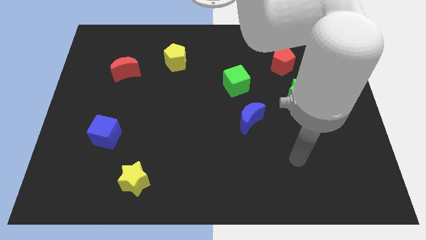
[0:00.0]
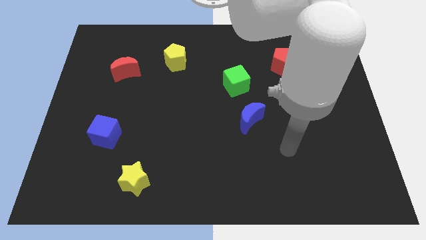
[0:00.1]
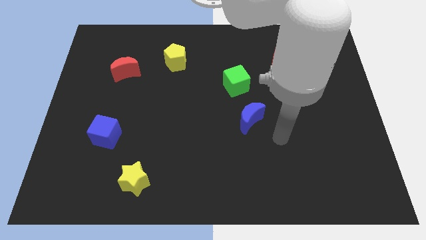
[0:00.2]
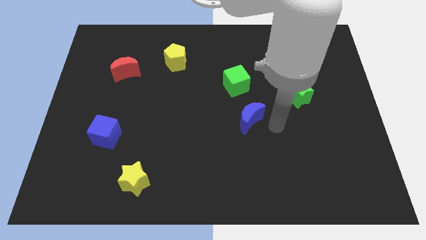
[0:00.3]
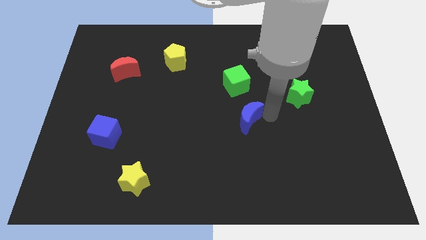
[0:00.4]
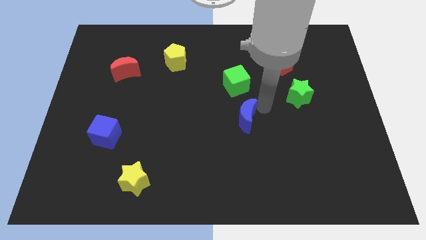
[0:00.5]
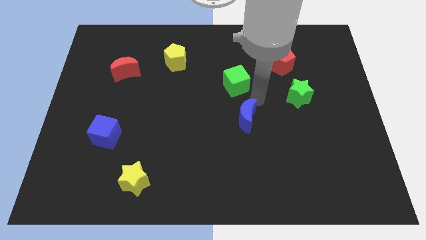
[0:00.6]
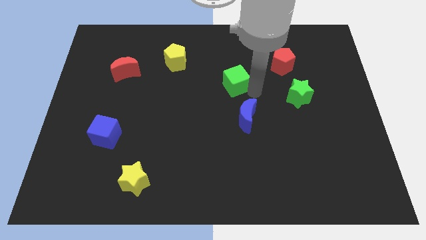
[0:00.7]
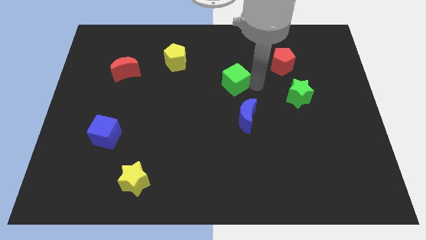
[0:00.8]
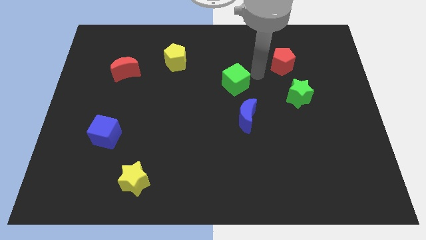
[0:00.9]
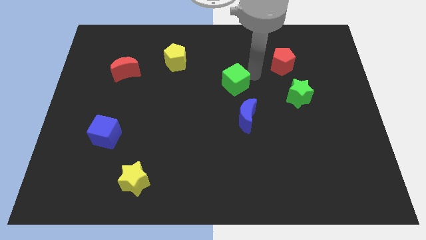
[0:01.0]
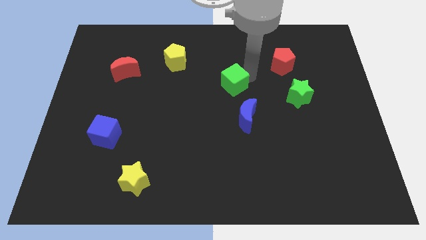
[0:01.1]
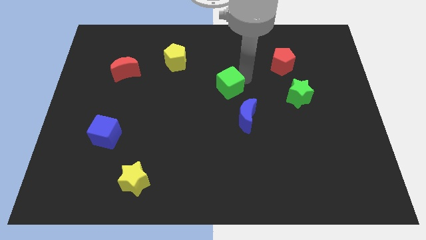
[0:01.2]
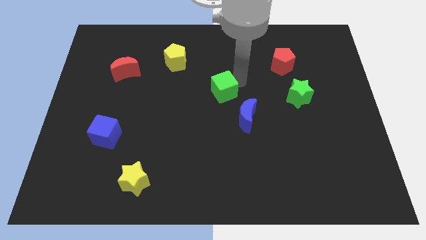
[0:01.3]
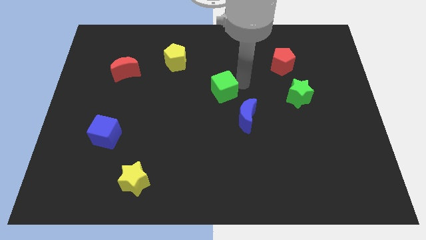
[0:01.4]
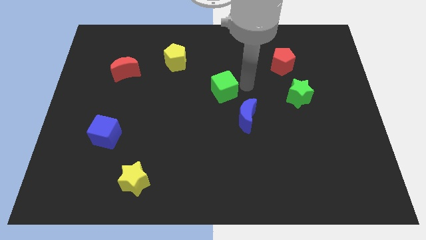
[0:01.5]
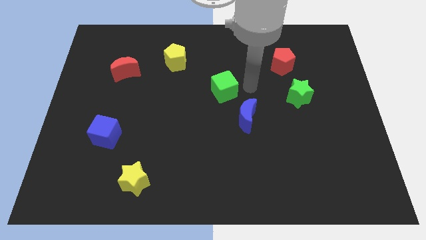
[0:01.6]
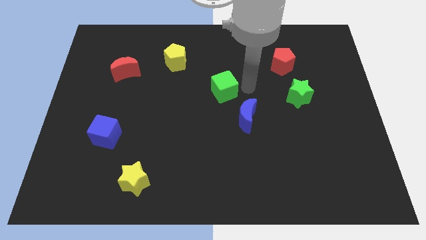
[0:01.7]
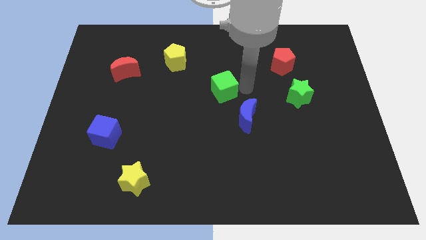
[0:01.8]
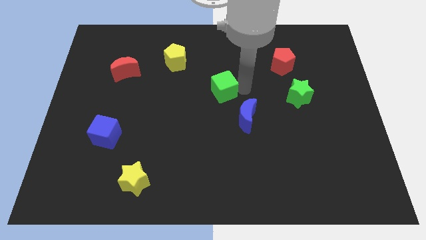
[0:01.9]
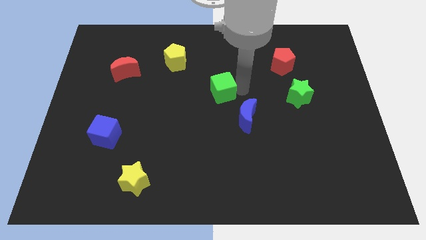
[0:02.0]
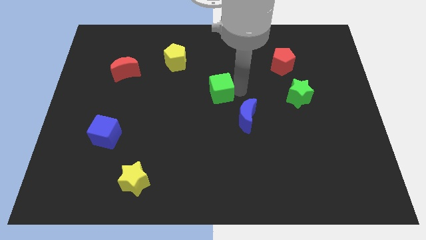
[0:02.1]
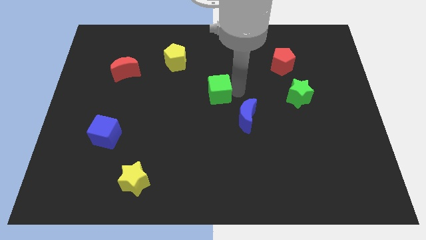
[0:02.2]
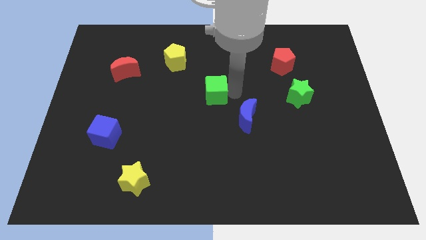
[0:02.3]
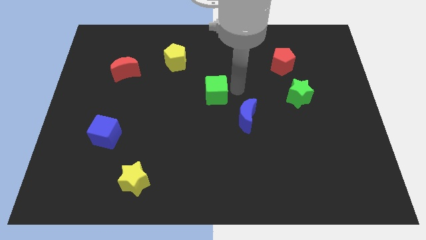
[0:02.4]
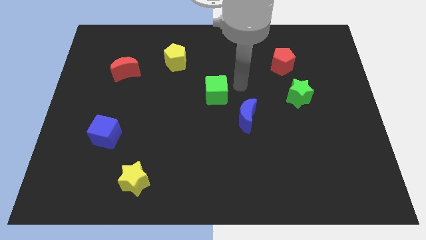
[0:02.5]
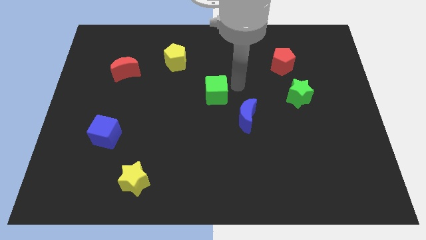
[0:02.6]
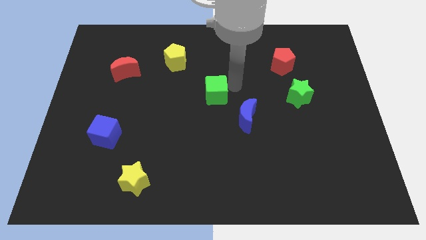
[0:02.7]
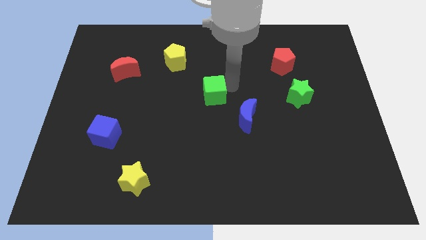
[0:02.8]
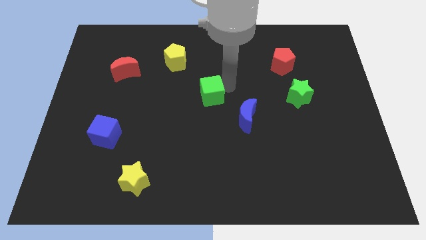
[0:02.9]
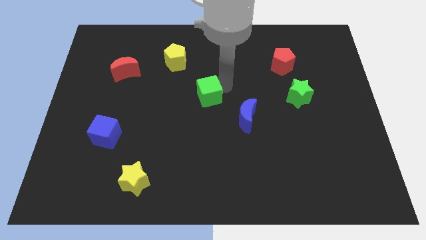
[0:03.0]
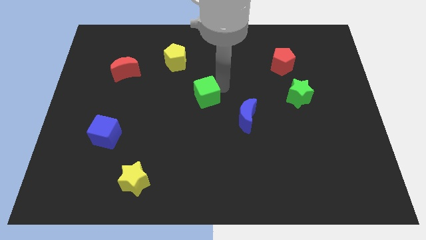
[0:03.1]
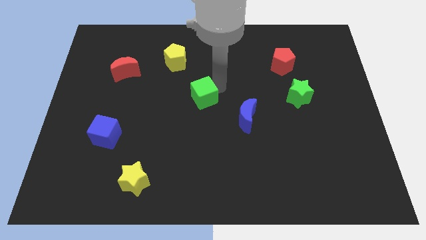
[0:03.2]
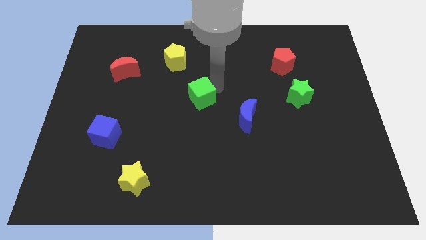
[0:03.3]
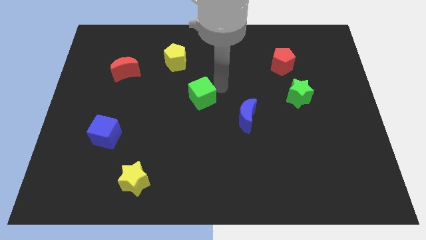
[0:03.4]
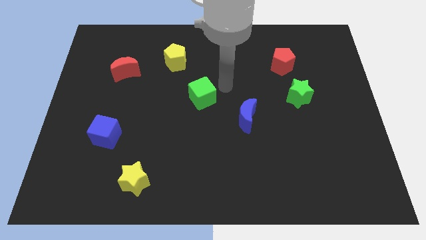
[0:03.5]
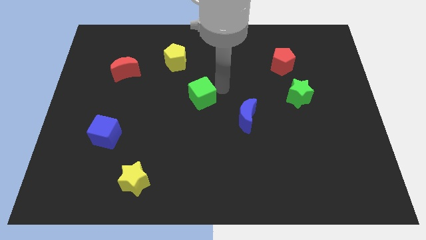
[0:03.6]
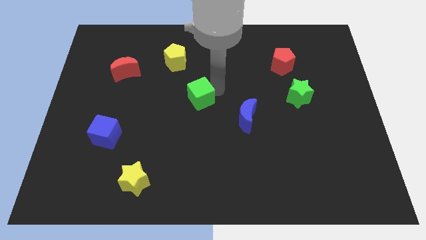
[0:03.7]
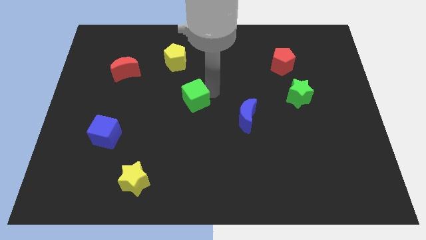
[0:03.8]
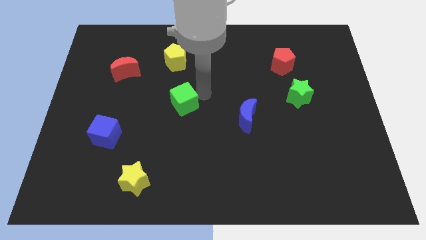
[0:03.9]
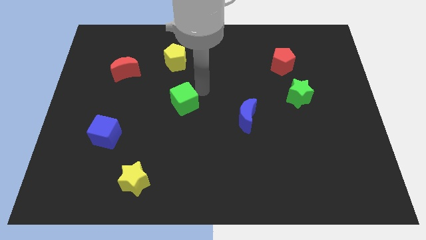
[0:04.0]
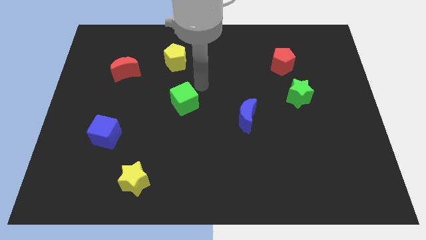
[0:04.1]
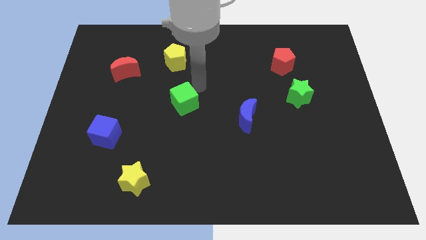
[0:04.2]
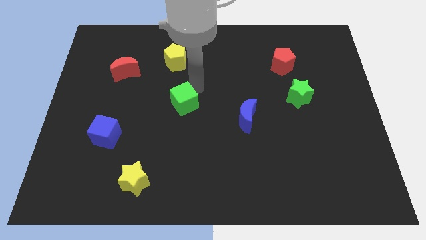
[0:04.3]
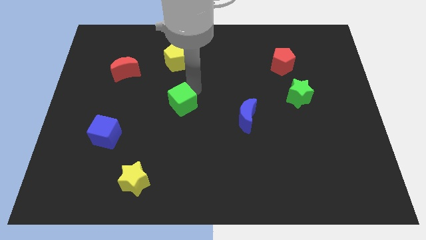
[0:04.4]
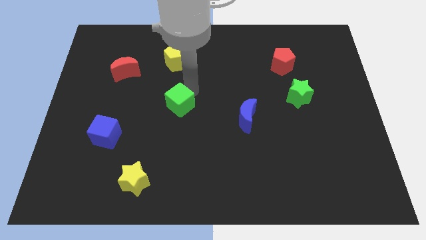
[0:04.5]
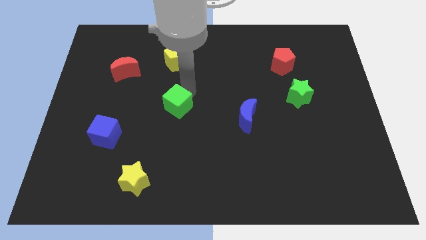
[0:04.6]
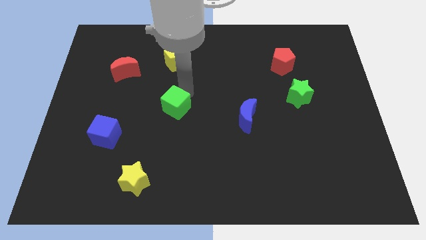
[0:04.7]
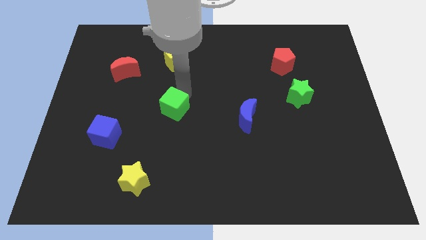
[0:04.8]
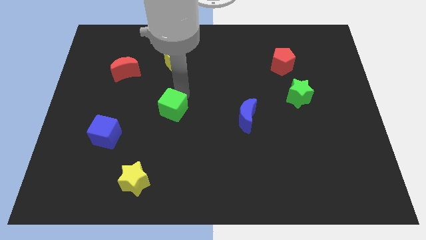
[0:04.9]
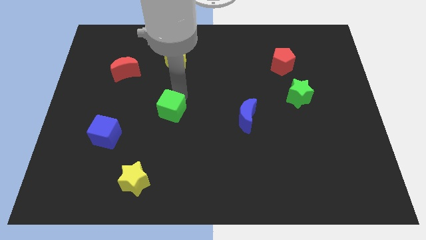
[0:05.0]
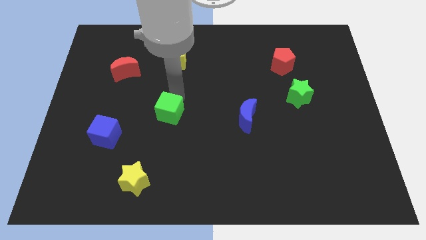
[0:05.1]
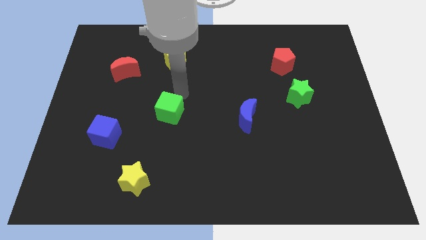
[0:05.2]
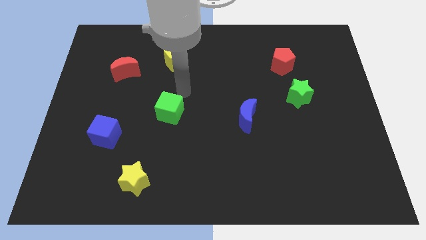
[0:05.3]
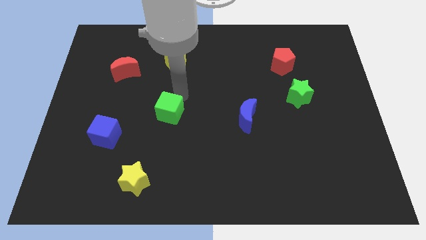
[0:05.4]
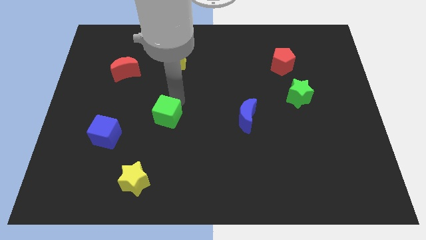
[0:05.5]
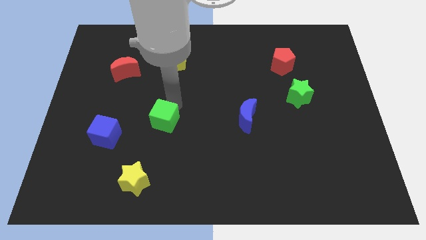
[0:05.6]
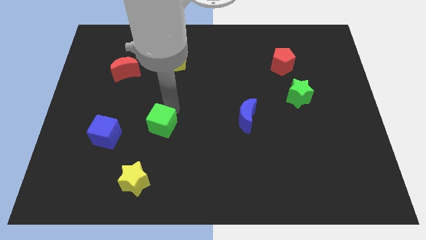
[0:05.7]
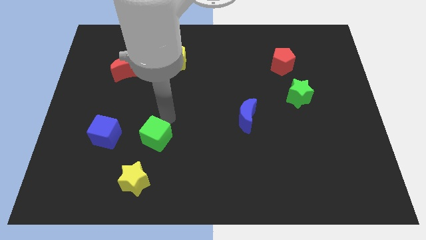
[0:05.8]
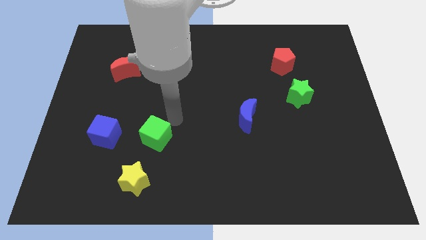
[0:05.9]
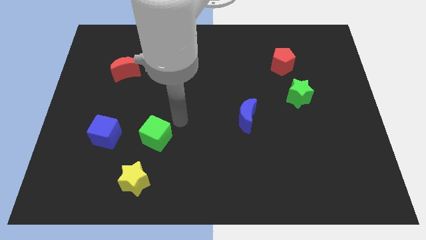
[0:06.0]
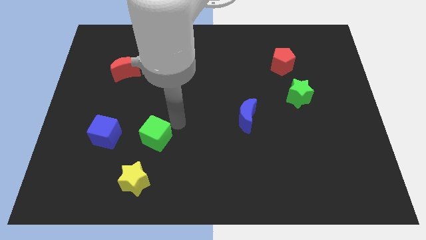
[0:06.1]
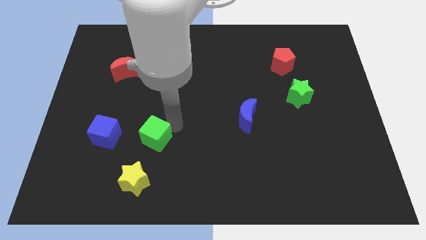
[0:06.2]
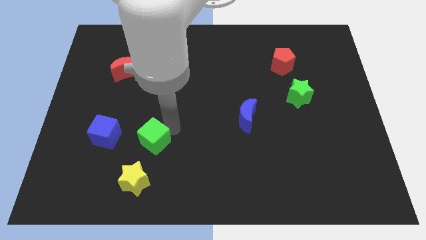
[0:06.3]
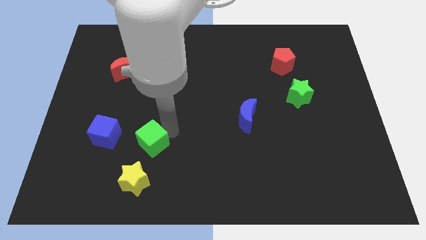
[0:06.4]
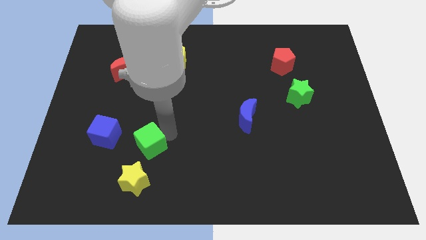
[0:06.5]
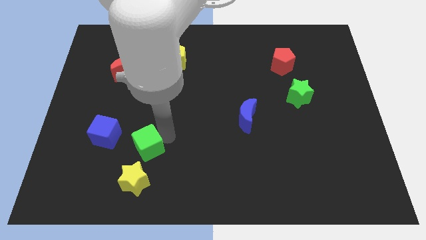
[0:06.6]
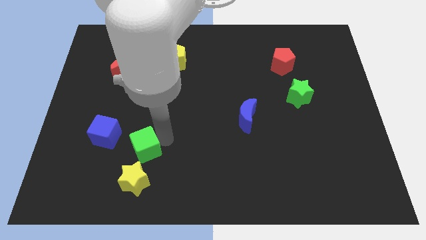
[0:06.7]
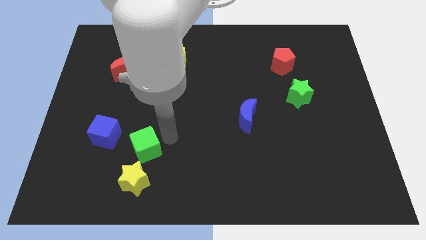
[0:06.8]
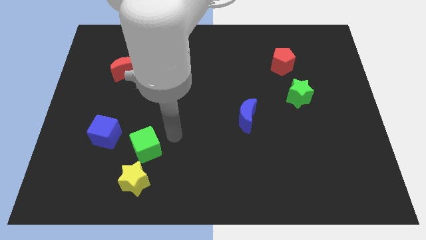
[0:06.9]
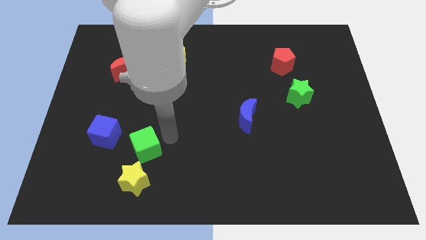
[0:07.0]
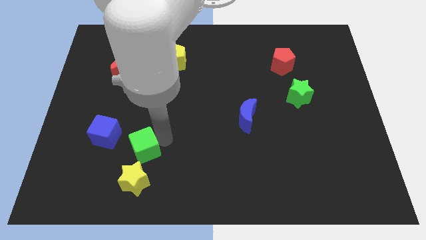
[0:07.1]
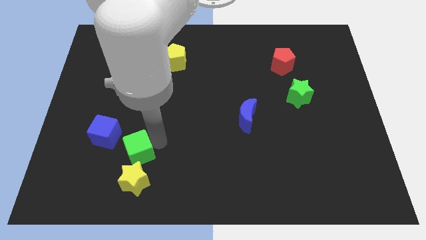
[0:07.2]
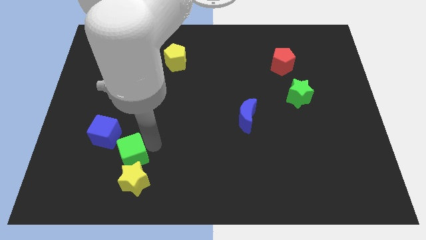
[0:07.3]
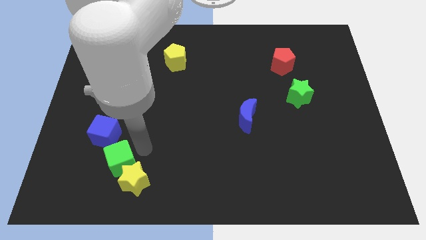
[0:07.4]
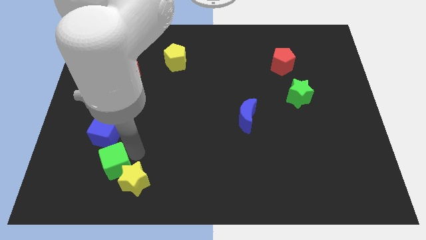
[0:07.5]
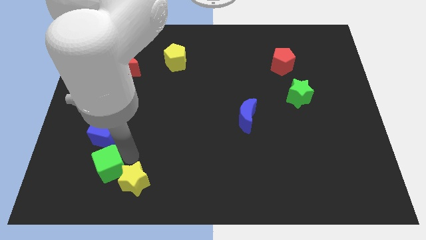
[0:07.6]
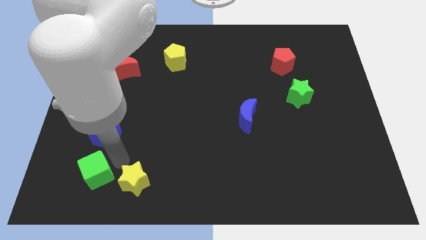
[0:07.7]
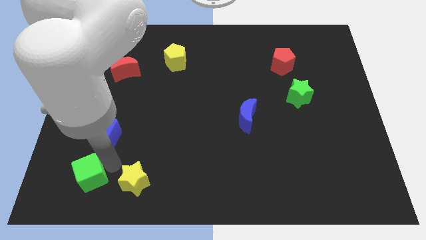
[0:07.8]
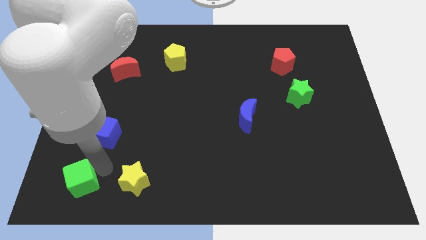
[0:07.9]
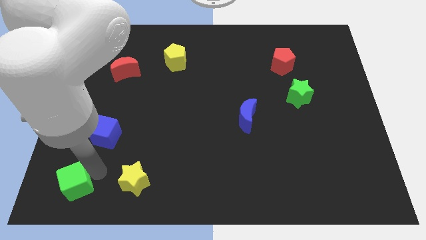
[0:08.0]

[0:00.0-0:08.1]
push the green cube to the bottom left corner
